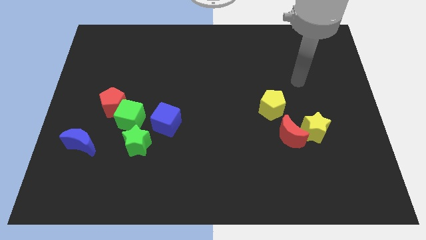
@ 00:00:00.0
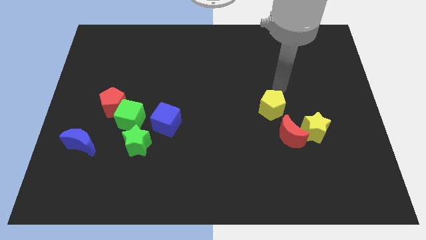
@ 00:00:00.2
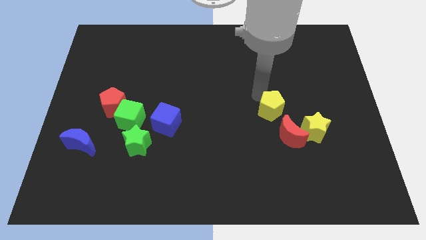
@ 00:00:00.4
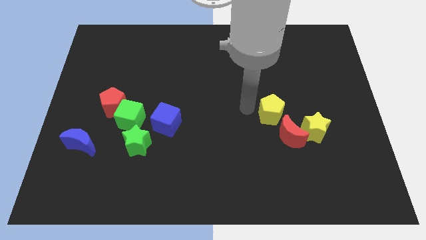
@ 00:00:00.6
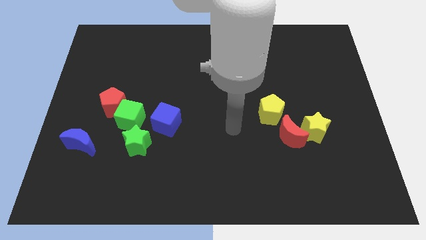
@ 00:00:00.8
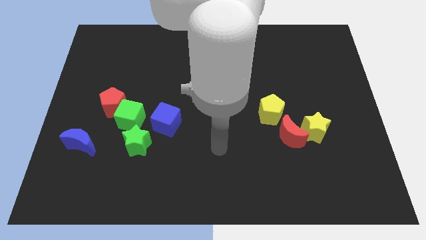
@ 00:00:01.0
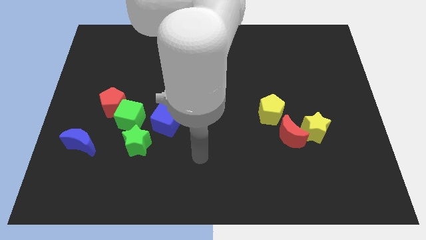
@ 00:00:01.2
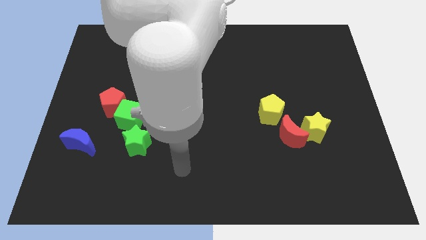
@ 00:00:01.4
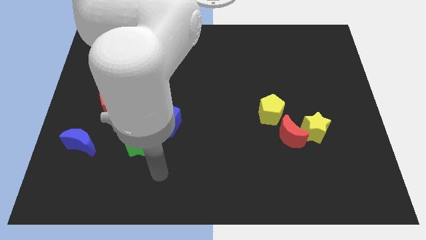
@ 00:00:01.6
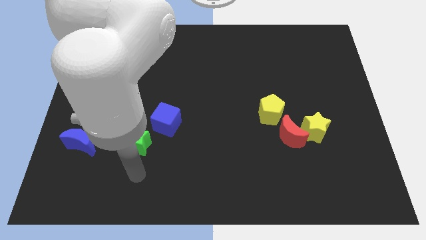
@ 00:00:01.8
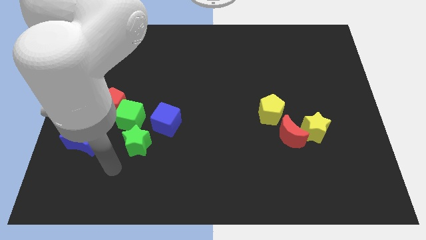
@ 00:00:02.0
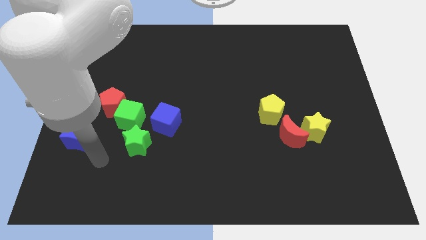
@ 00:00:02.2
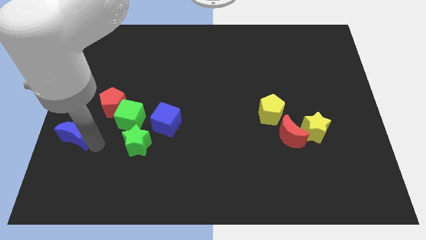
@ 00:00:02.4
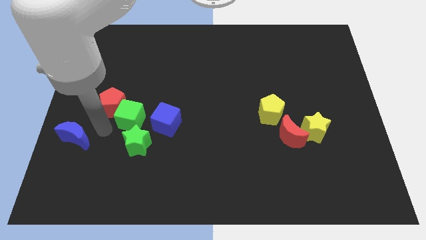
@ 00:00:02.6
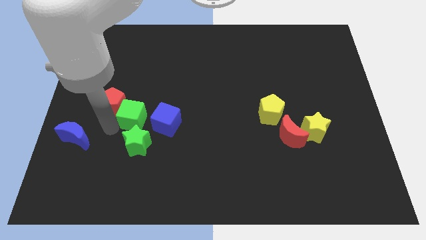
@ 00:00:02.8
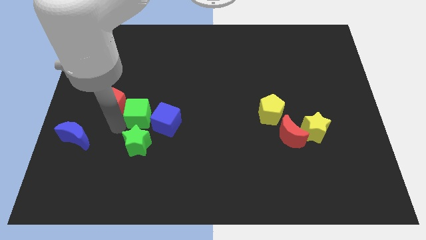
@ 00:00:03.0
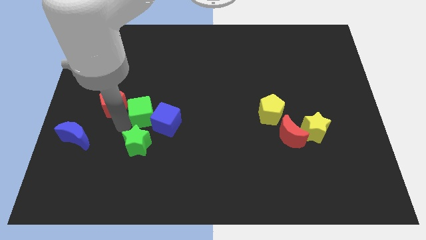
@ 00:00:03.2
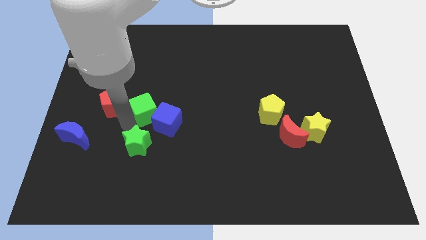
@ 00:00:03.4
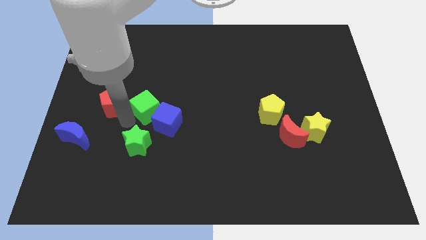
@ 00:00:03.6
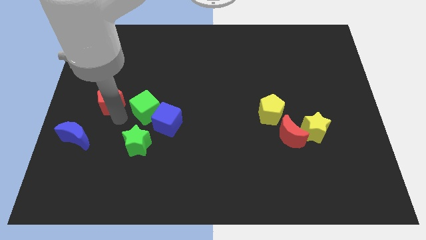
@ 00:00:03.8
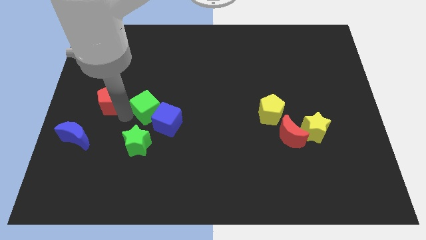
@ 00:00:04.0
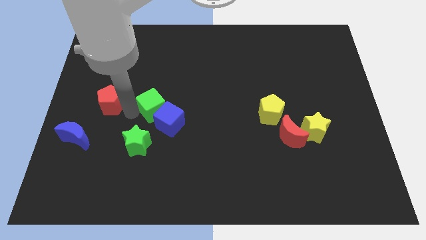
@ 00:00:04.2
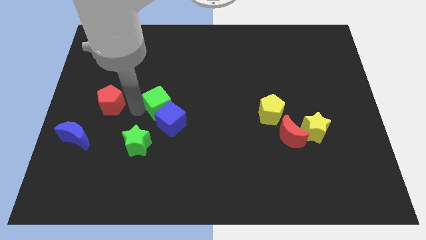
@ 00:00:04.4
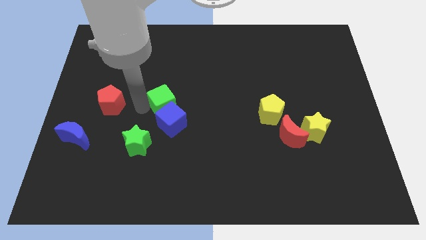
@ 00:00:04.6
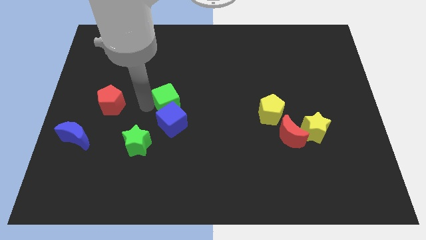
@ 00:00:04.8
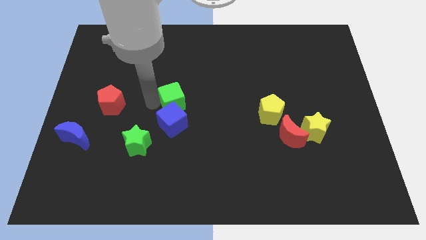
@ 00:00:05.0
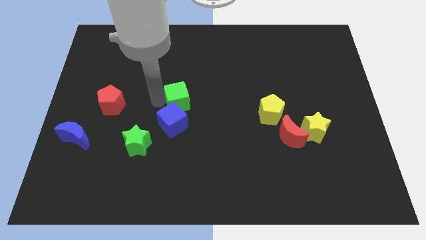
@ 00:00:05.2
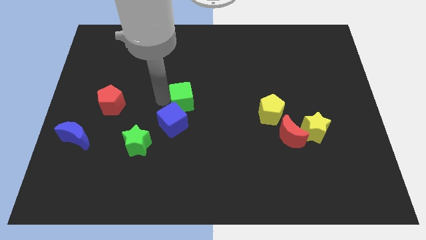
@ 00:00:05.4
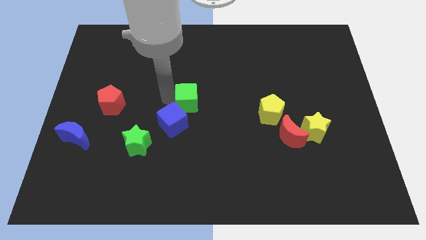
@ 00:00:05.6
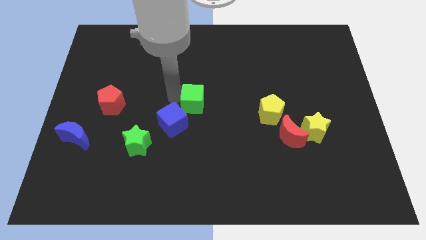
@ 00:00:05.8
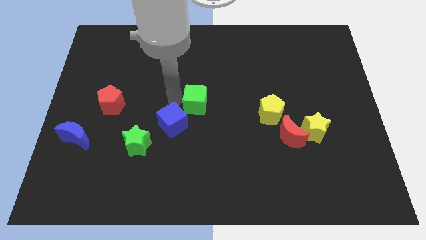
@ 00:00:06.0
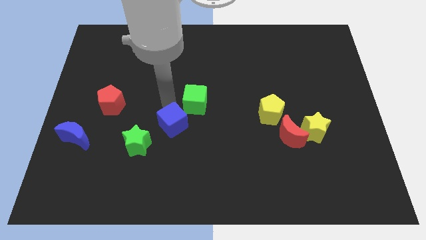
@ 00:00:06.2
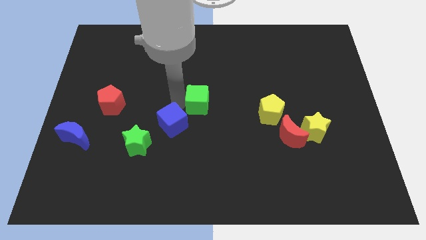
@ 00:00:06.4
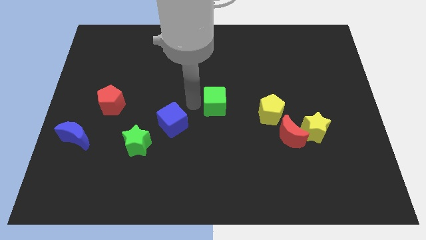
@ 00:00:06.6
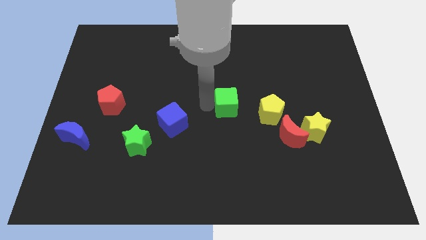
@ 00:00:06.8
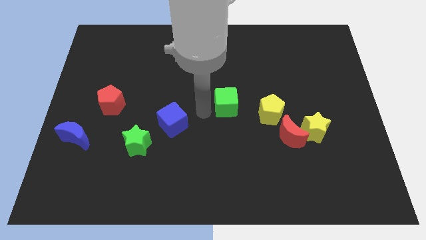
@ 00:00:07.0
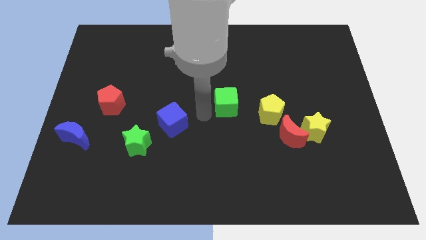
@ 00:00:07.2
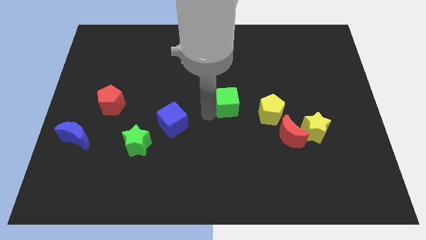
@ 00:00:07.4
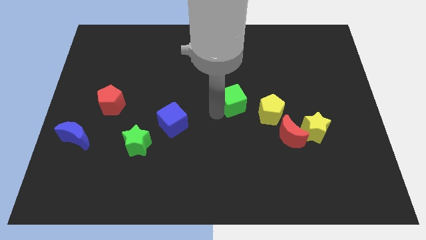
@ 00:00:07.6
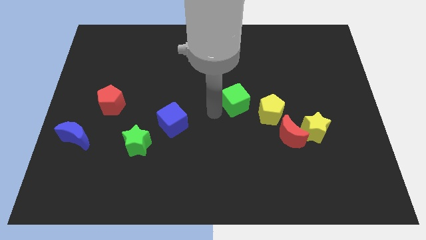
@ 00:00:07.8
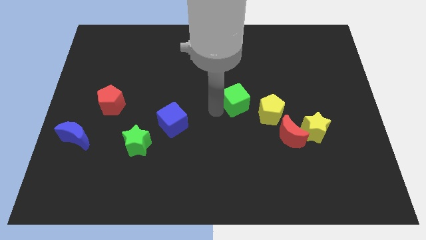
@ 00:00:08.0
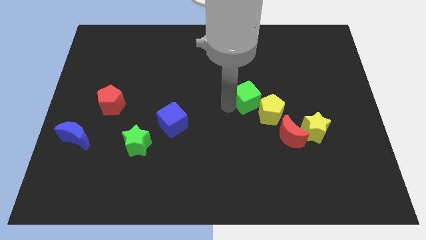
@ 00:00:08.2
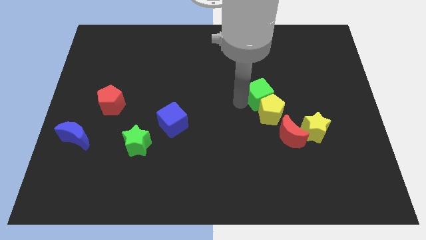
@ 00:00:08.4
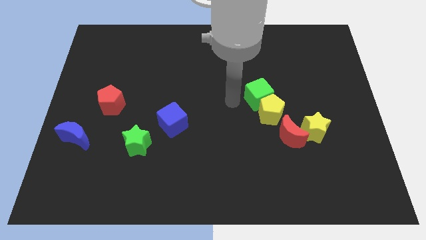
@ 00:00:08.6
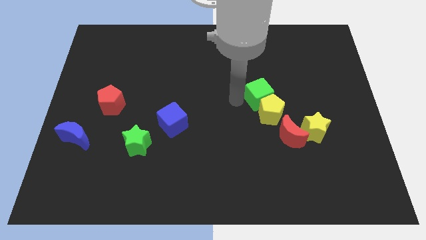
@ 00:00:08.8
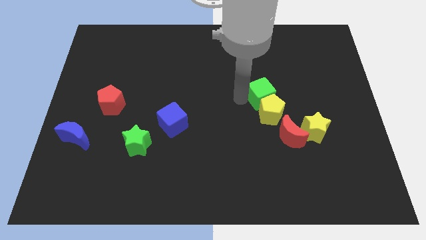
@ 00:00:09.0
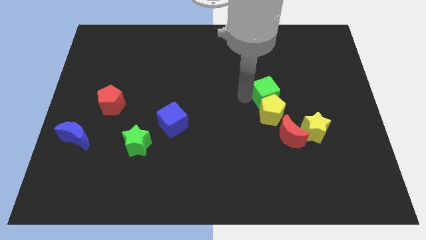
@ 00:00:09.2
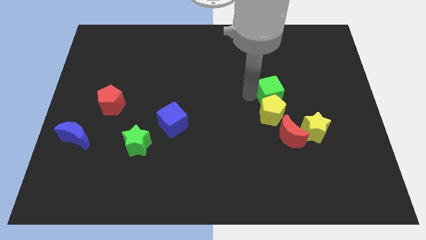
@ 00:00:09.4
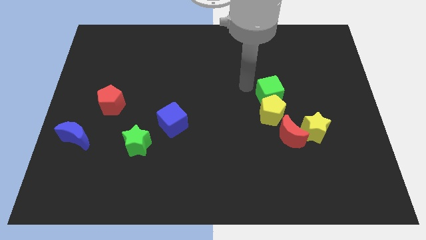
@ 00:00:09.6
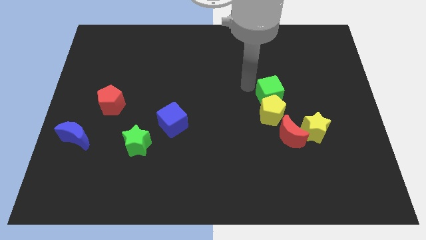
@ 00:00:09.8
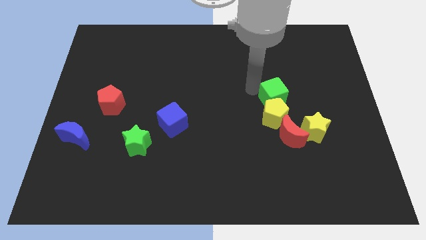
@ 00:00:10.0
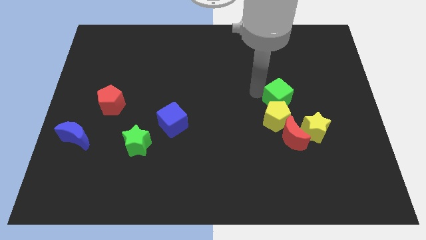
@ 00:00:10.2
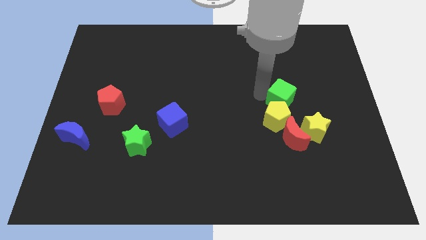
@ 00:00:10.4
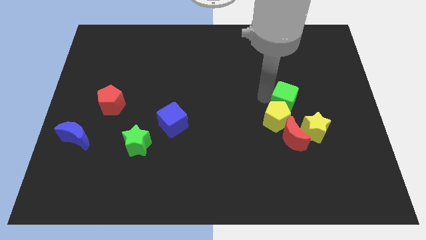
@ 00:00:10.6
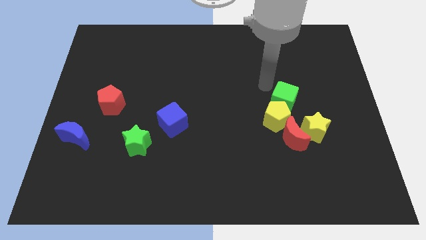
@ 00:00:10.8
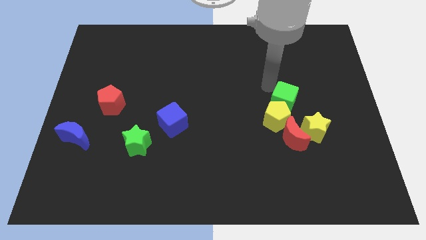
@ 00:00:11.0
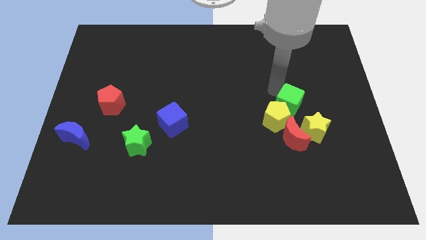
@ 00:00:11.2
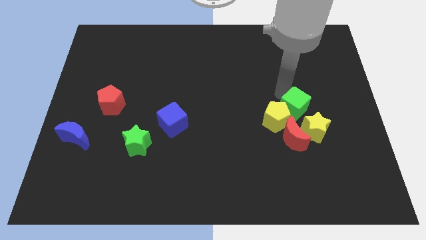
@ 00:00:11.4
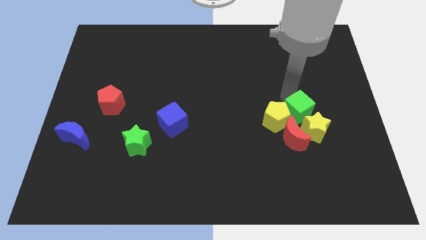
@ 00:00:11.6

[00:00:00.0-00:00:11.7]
put the green cube to the yellow star
